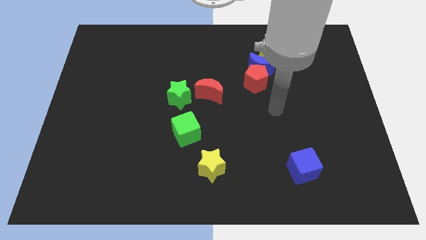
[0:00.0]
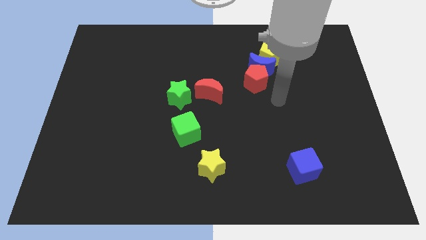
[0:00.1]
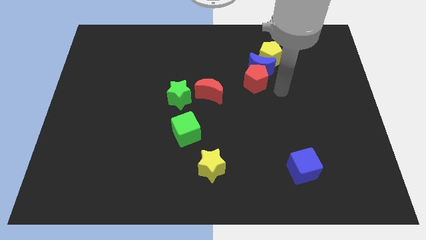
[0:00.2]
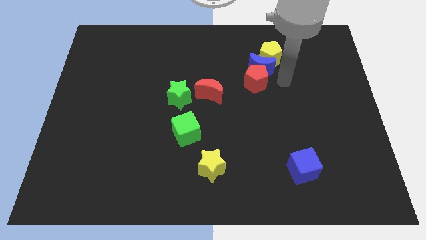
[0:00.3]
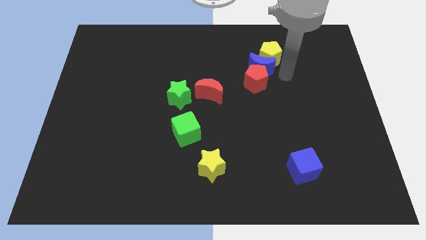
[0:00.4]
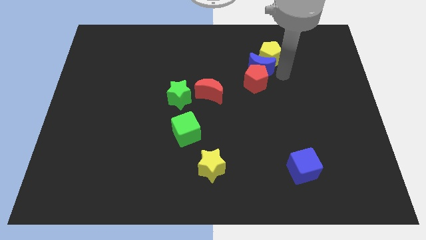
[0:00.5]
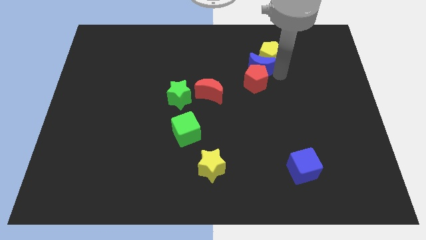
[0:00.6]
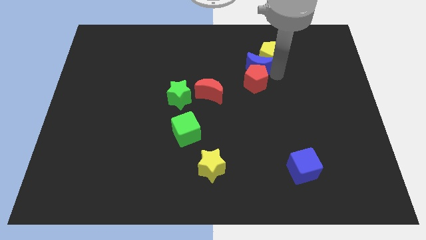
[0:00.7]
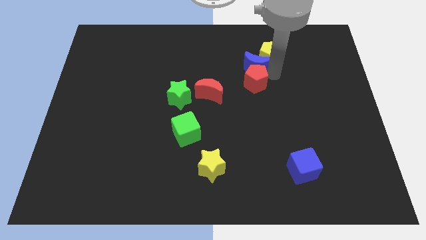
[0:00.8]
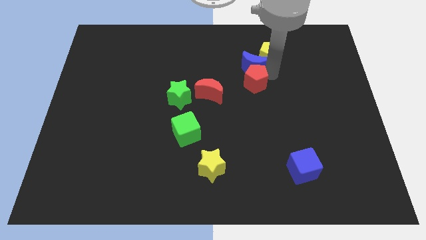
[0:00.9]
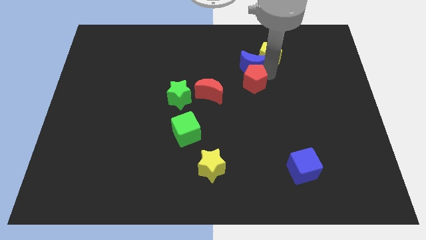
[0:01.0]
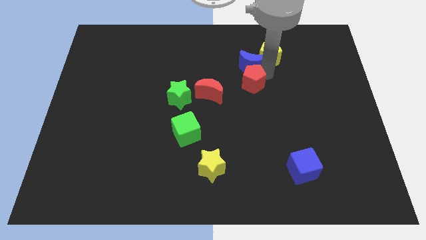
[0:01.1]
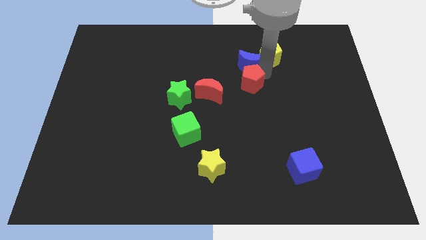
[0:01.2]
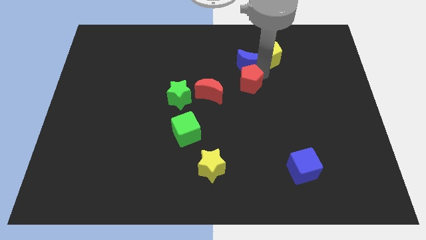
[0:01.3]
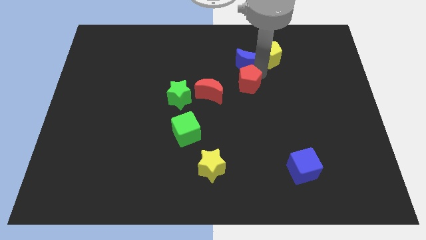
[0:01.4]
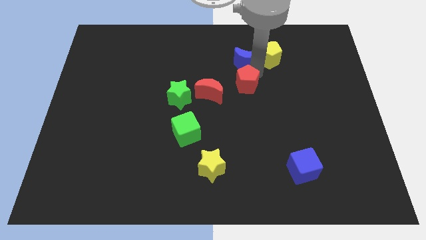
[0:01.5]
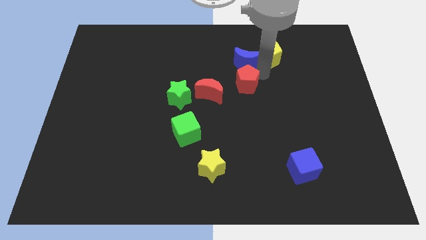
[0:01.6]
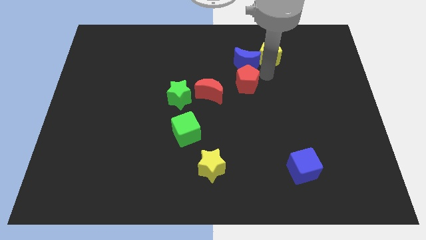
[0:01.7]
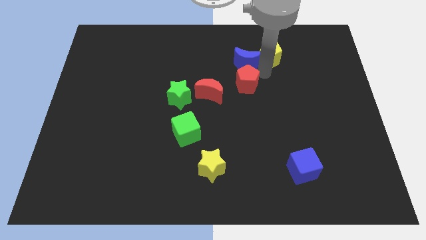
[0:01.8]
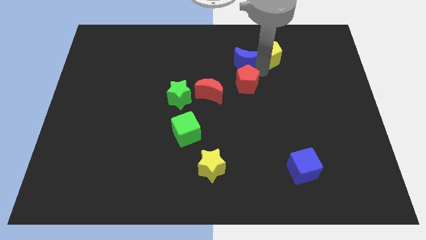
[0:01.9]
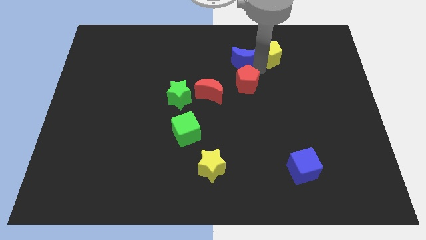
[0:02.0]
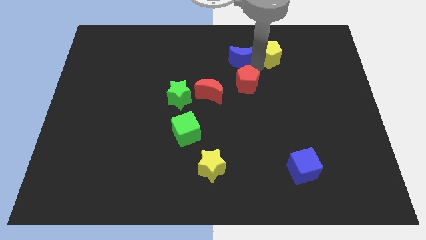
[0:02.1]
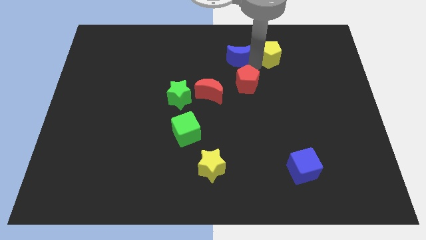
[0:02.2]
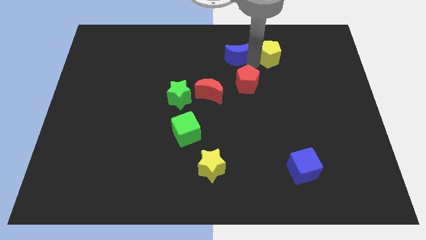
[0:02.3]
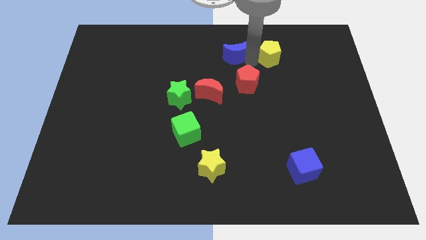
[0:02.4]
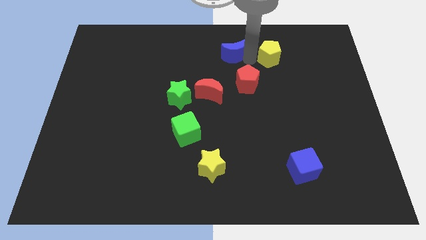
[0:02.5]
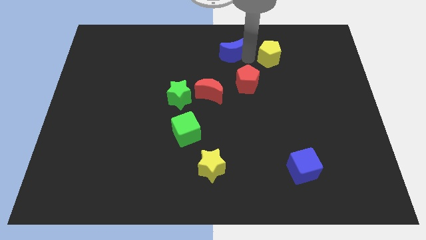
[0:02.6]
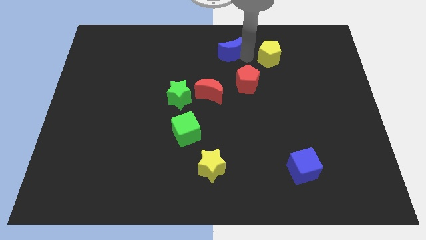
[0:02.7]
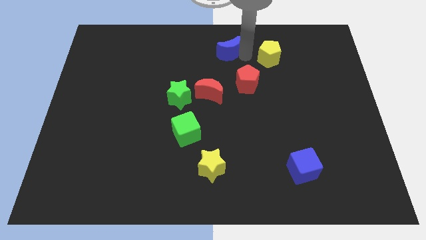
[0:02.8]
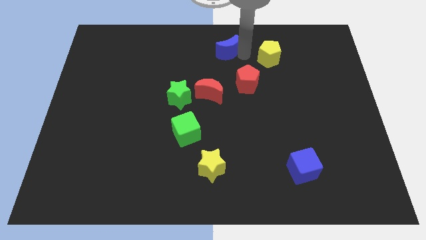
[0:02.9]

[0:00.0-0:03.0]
pull the blue moon apart from the red pentagon and yellow pentagon

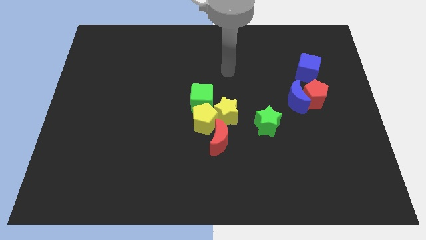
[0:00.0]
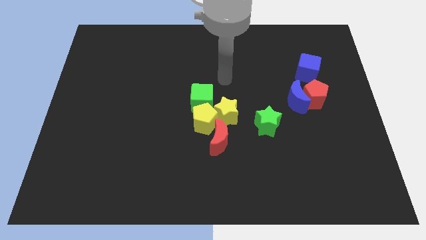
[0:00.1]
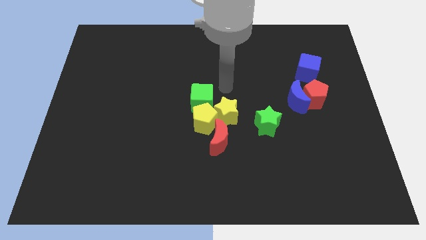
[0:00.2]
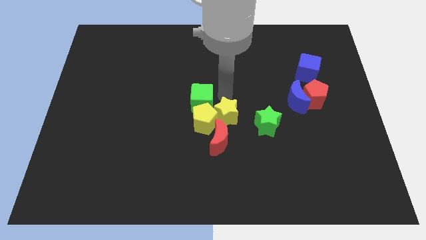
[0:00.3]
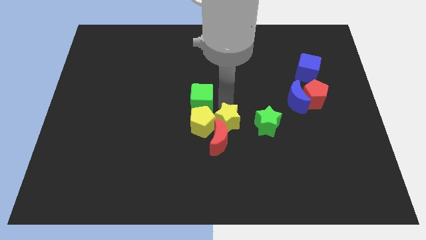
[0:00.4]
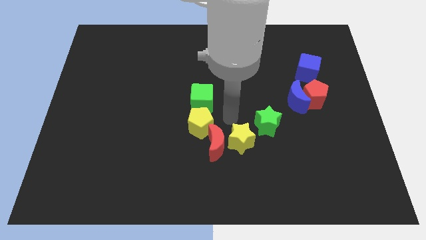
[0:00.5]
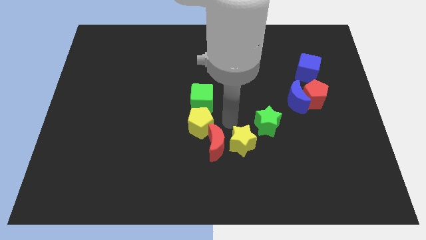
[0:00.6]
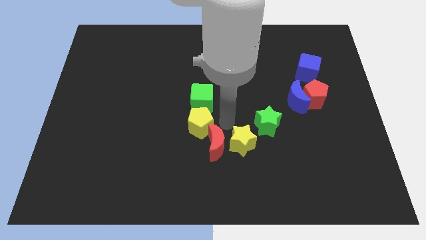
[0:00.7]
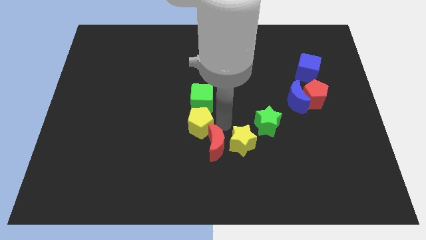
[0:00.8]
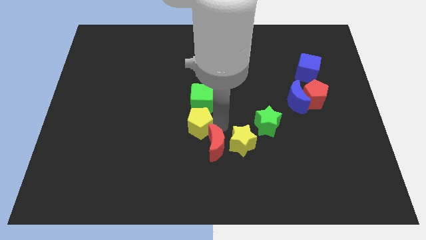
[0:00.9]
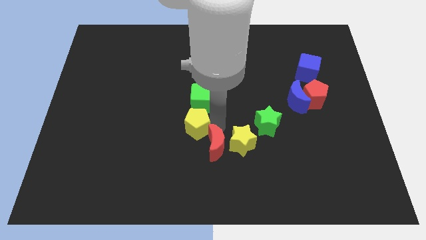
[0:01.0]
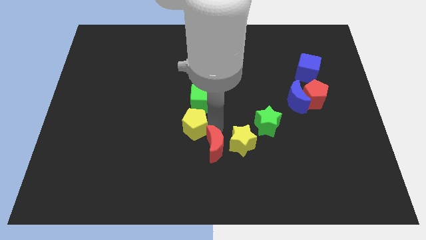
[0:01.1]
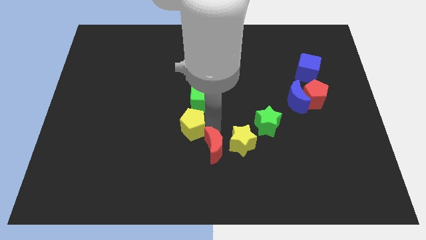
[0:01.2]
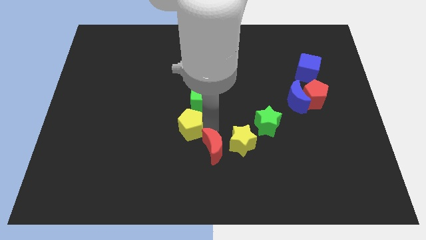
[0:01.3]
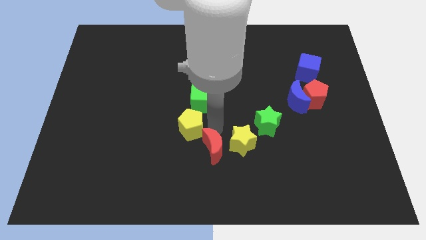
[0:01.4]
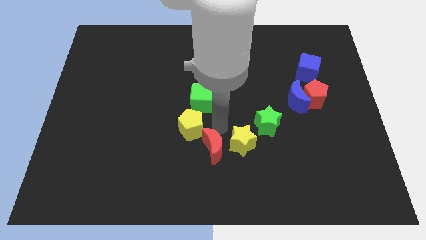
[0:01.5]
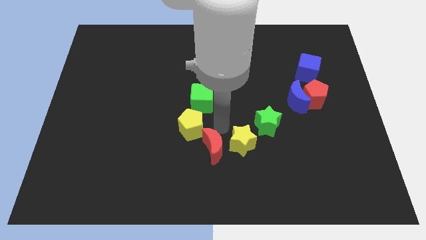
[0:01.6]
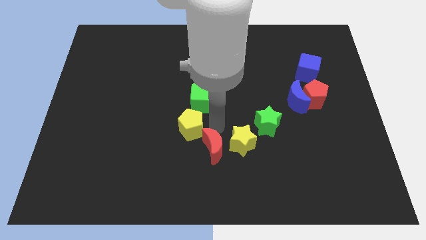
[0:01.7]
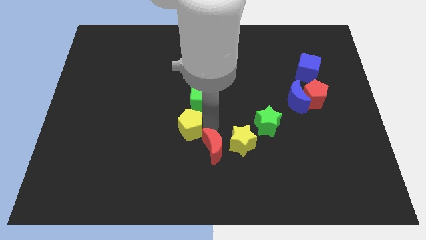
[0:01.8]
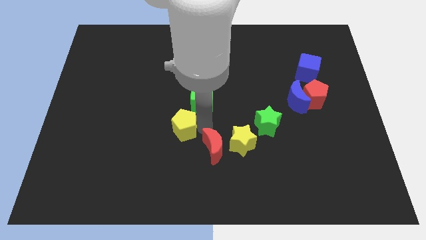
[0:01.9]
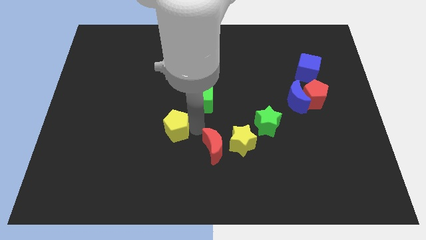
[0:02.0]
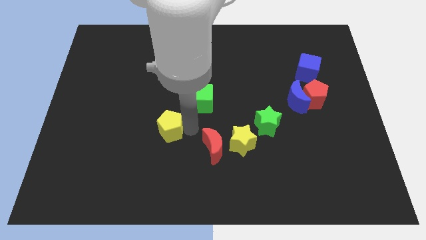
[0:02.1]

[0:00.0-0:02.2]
separate the yellow pentagon from the yellow star, green cube, and red moon

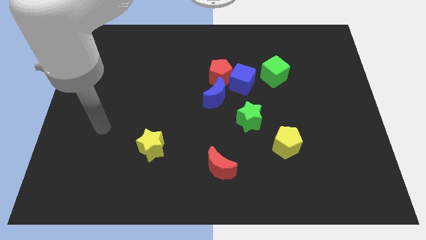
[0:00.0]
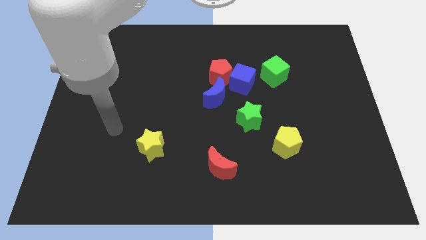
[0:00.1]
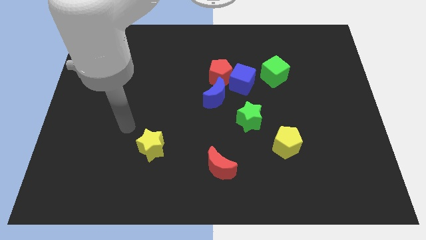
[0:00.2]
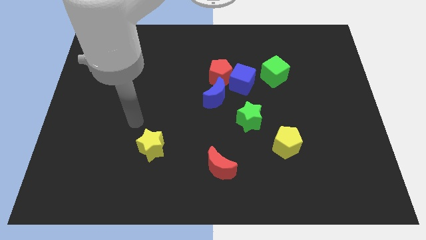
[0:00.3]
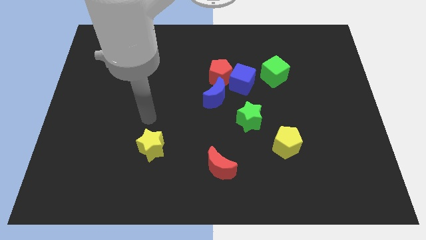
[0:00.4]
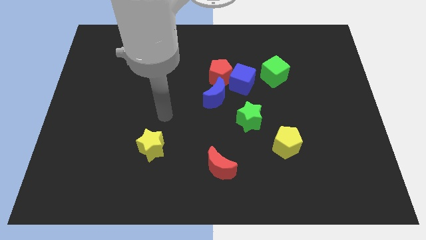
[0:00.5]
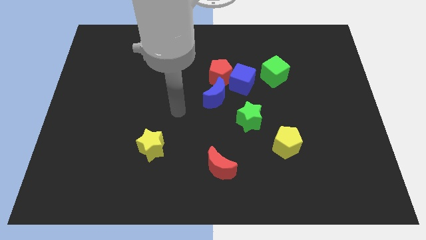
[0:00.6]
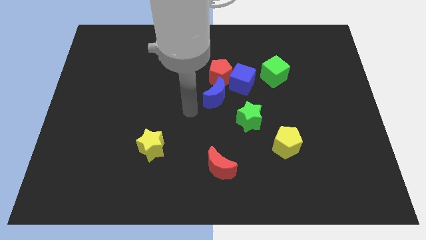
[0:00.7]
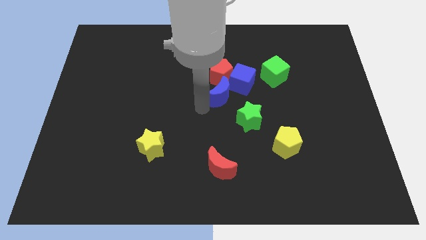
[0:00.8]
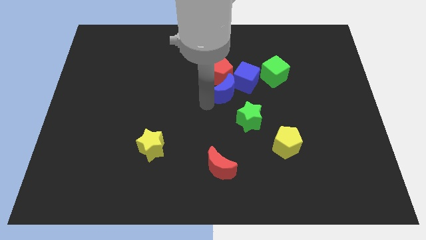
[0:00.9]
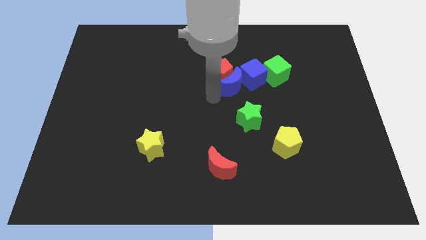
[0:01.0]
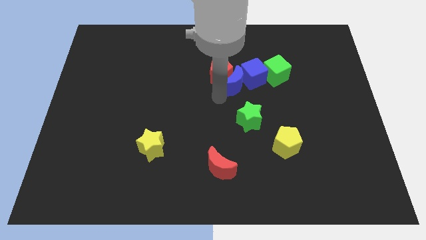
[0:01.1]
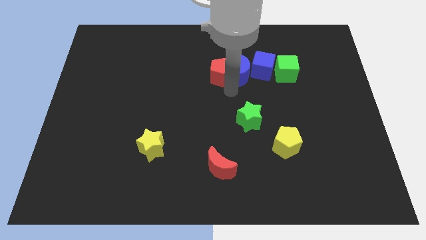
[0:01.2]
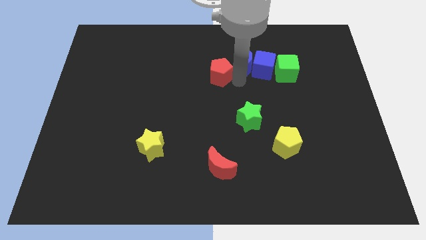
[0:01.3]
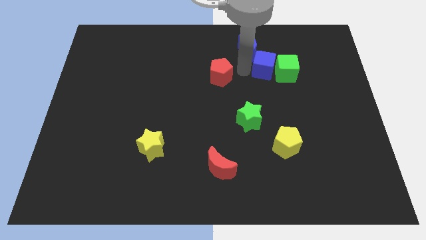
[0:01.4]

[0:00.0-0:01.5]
move the red pentagon away from the blue cube and blue moon

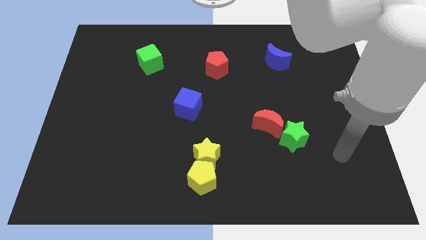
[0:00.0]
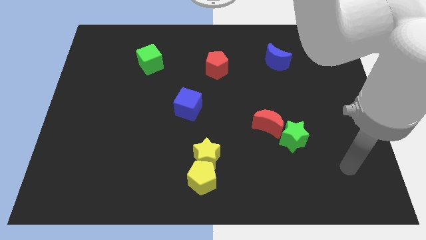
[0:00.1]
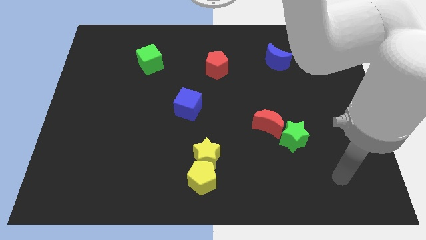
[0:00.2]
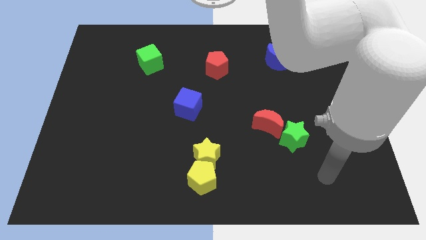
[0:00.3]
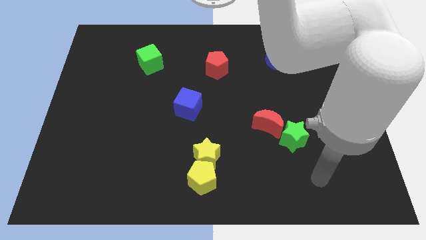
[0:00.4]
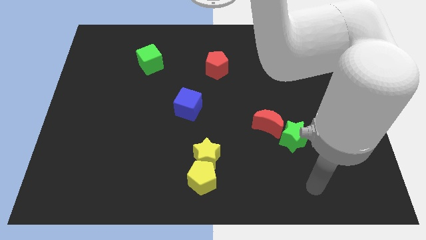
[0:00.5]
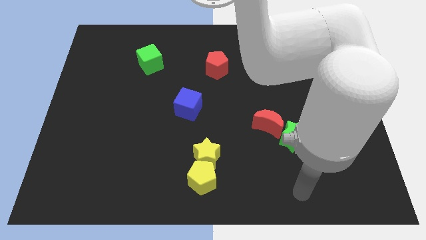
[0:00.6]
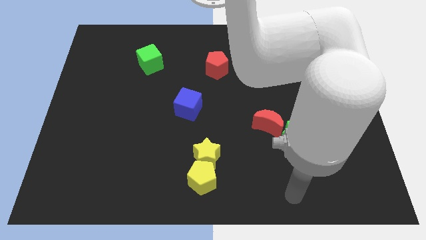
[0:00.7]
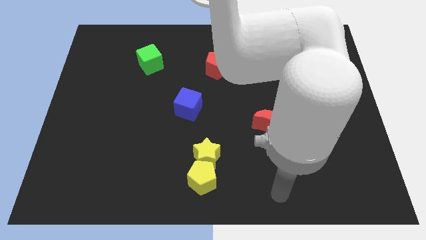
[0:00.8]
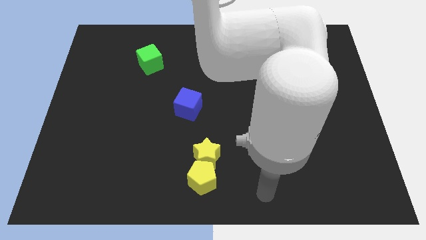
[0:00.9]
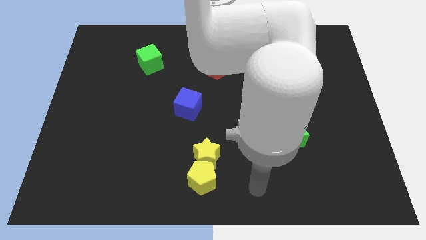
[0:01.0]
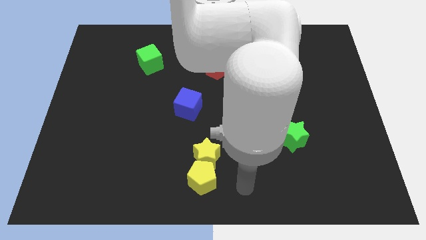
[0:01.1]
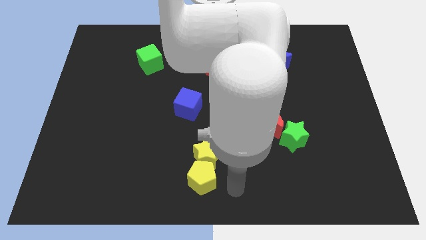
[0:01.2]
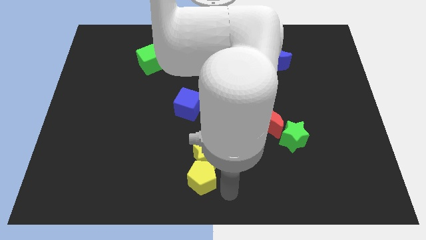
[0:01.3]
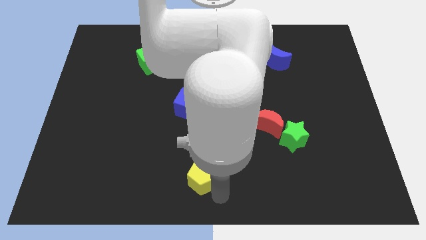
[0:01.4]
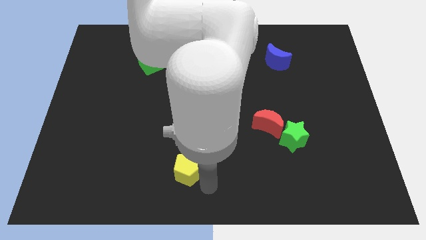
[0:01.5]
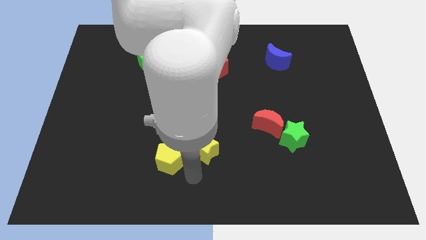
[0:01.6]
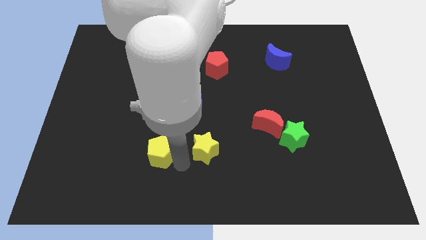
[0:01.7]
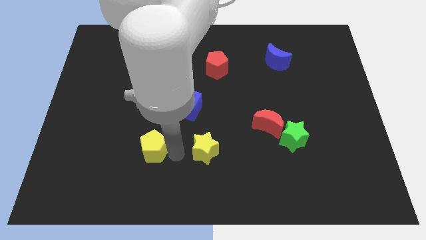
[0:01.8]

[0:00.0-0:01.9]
move the yellow star away from the yellow pentagon

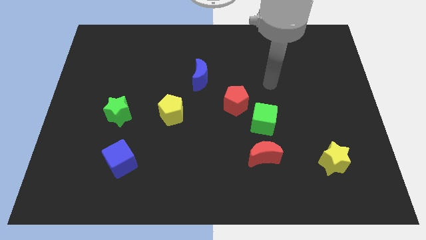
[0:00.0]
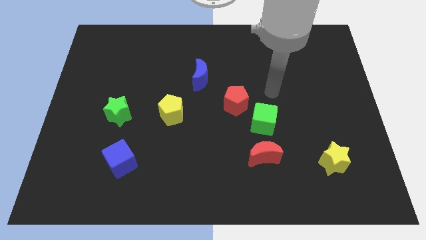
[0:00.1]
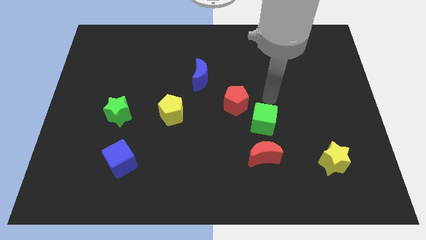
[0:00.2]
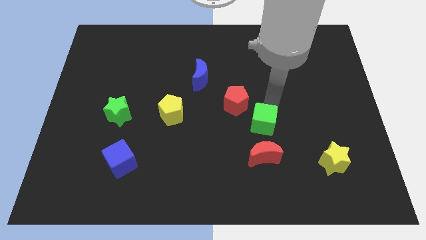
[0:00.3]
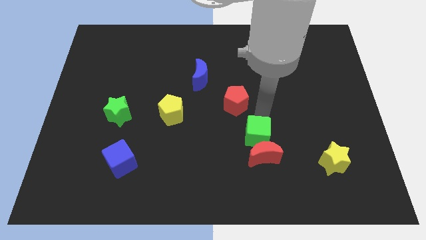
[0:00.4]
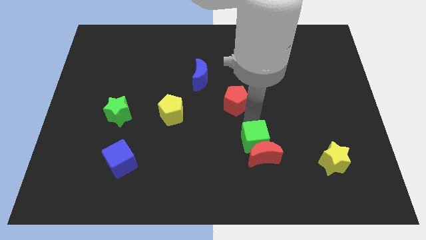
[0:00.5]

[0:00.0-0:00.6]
separate the red pentagon from the green cube
